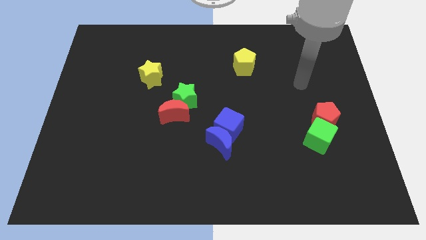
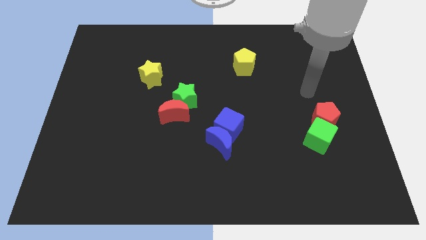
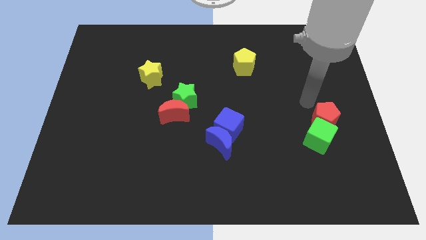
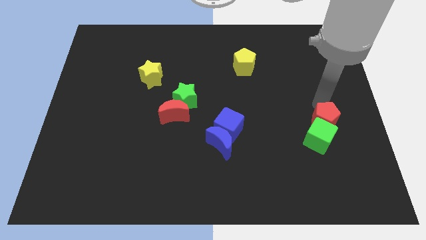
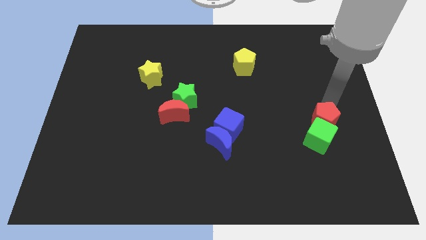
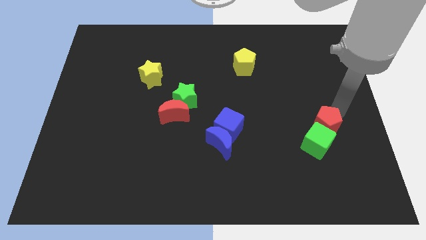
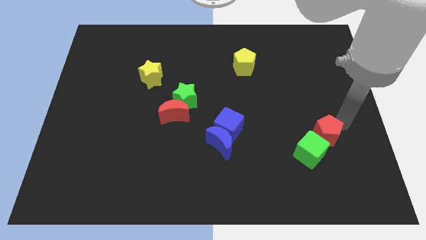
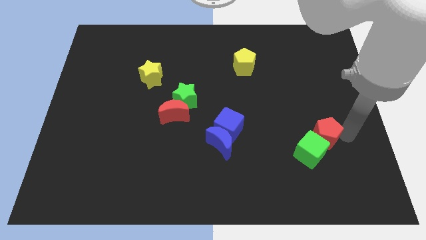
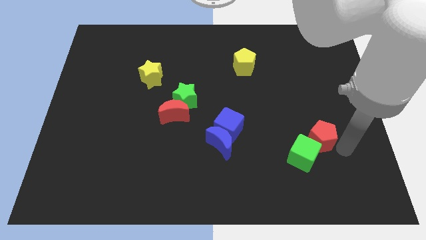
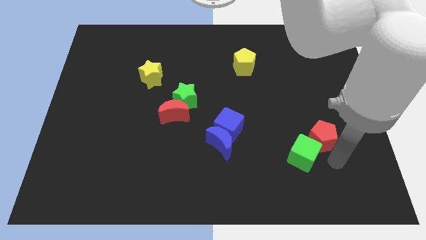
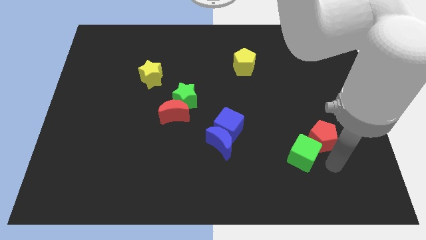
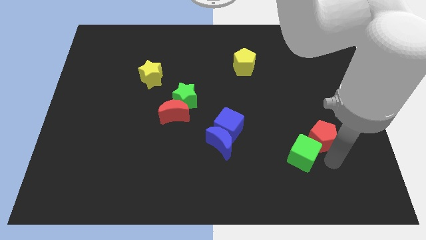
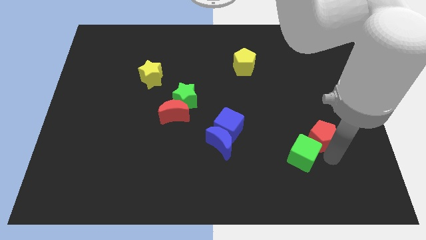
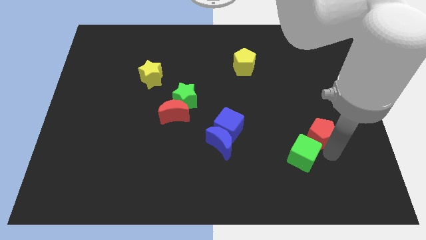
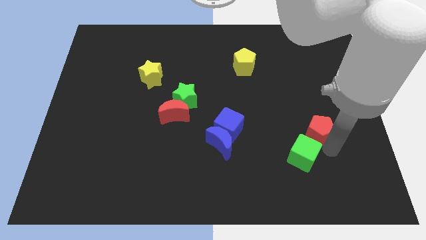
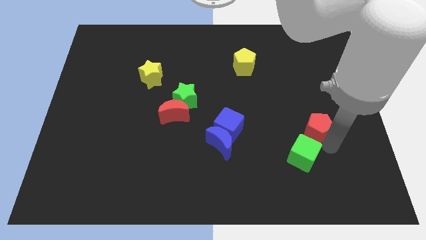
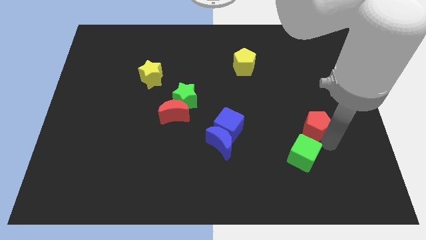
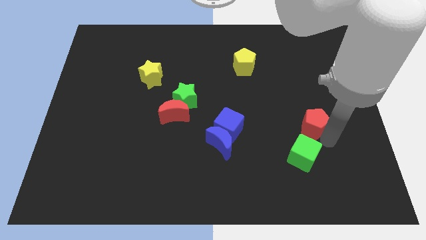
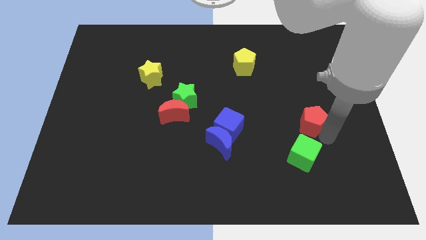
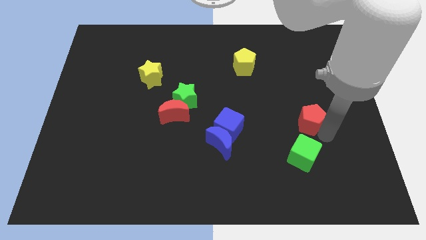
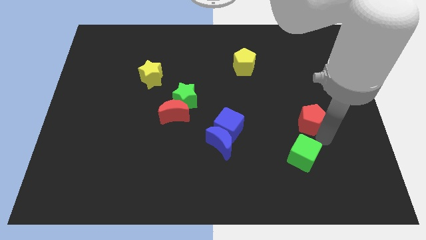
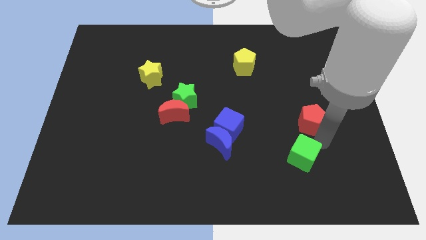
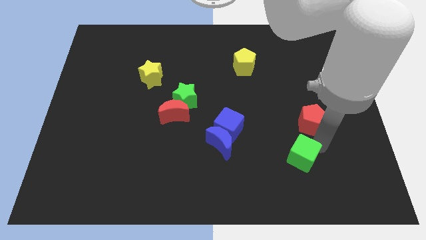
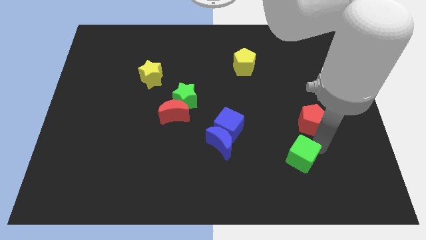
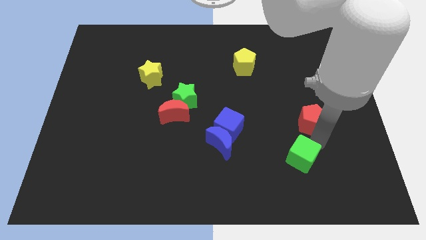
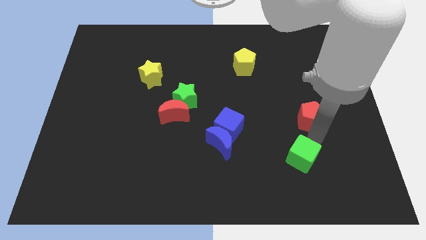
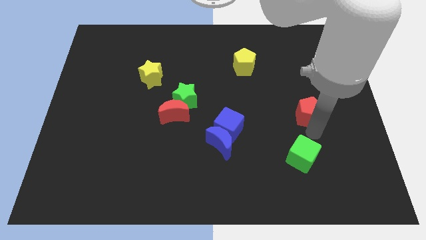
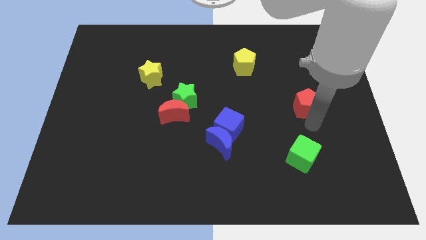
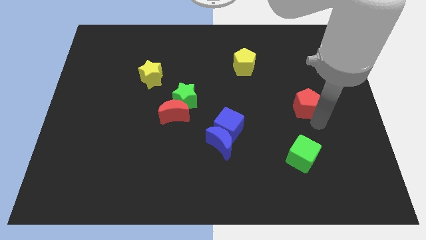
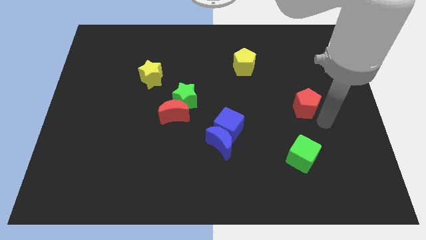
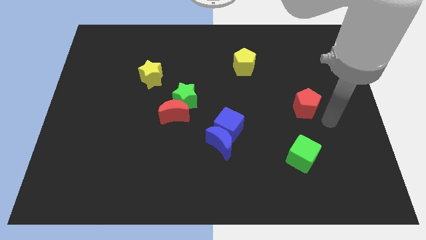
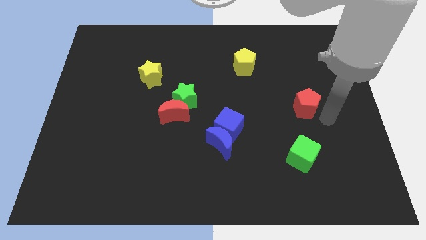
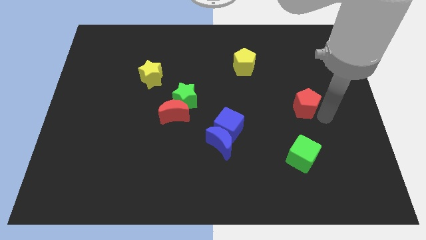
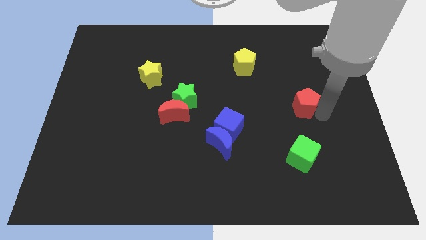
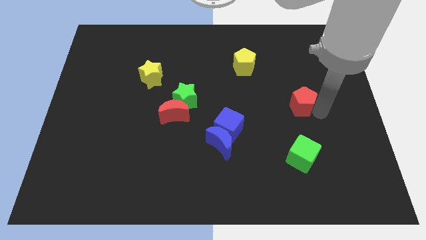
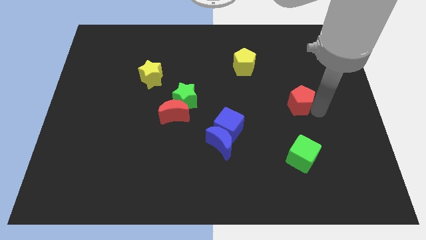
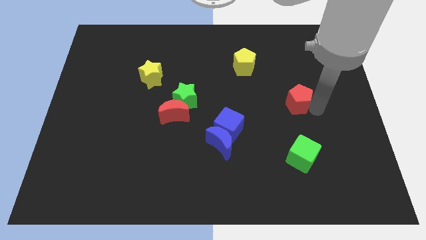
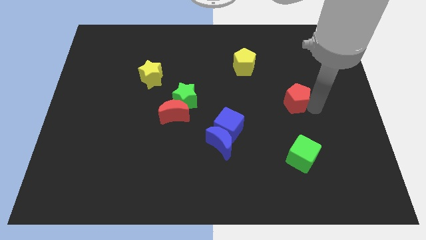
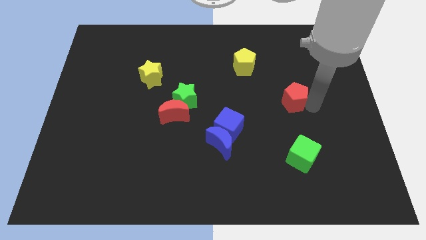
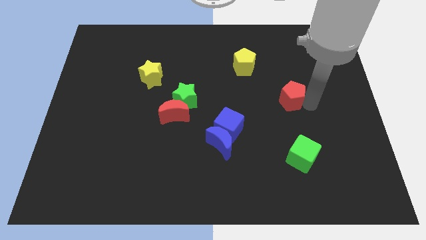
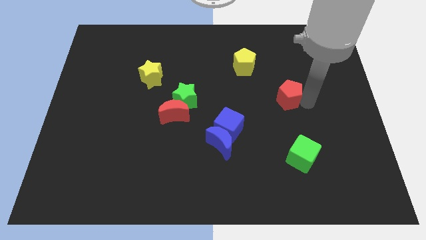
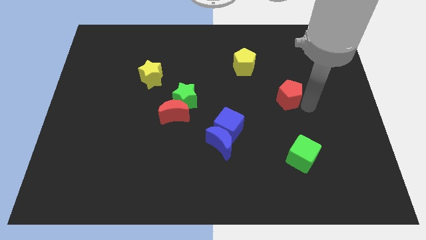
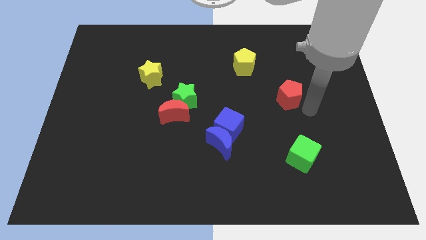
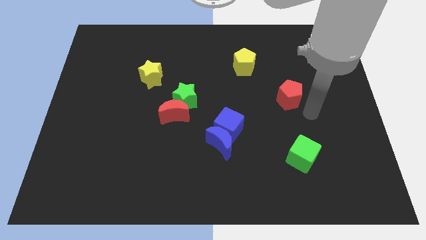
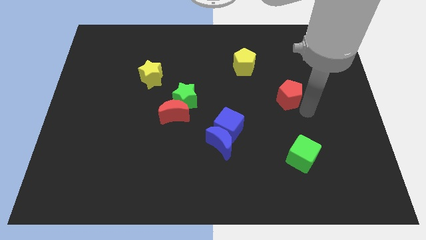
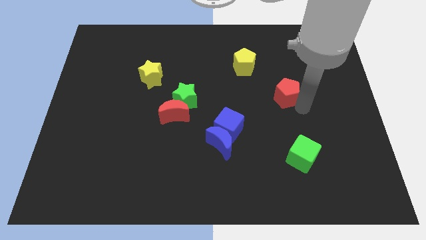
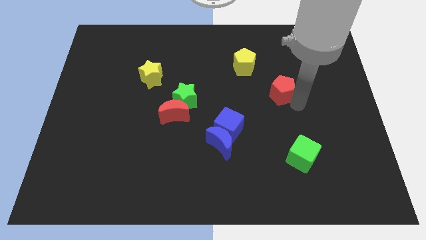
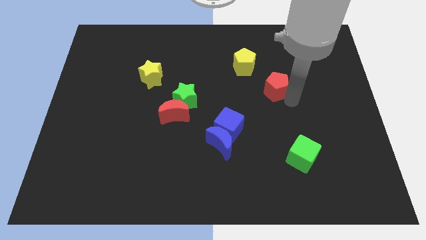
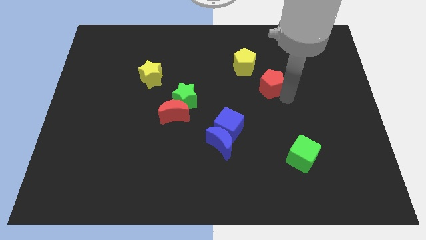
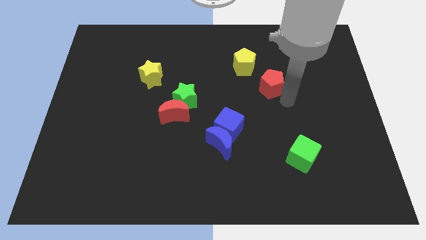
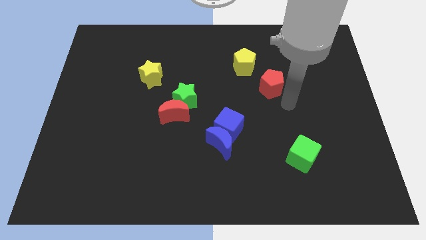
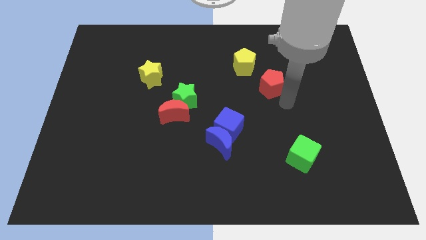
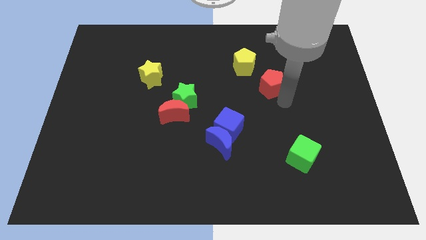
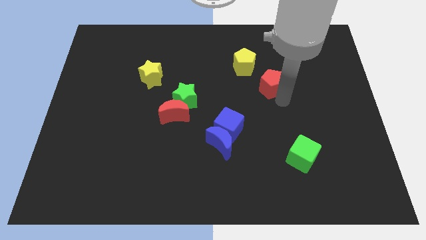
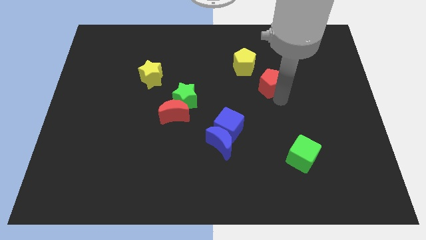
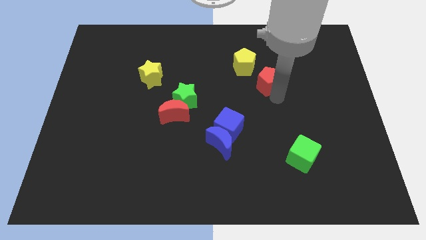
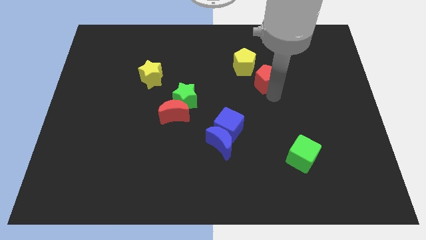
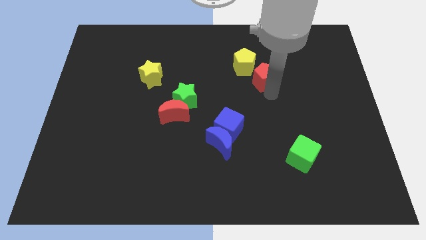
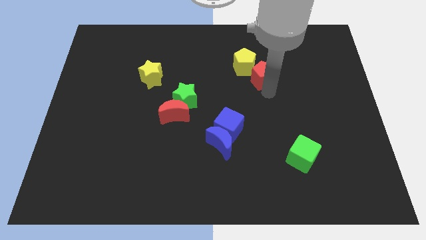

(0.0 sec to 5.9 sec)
push the red pentagon to the yellow pentagon
